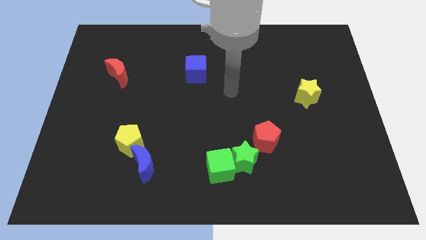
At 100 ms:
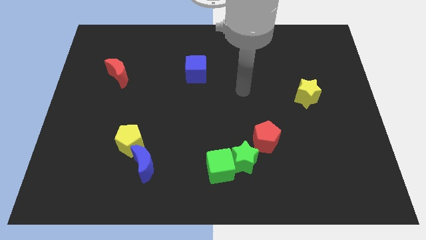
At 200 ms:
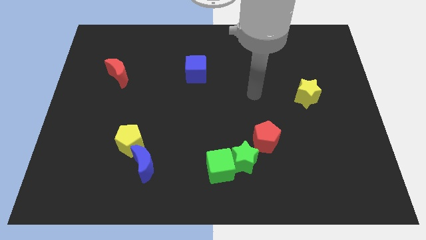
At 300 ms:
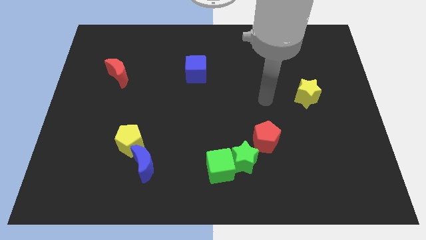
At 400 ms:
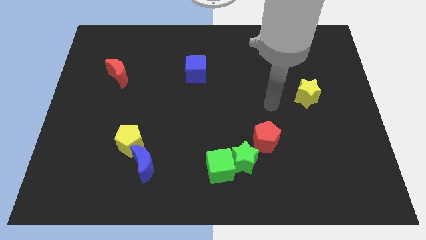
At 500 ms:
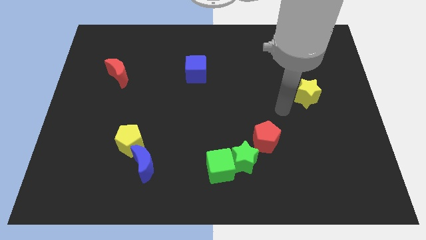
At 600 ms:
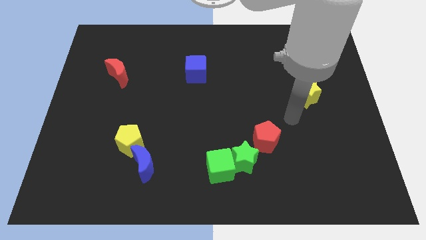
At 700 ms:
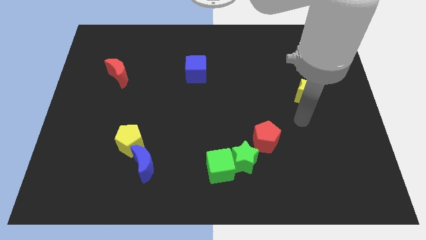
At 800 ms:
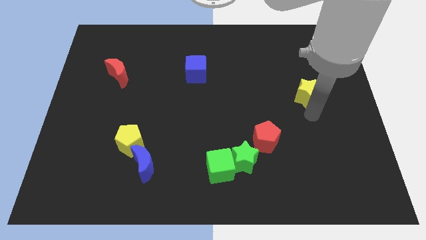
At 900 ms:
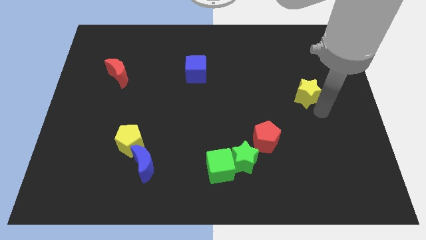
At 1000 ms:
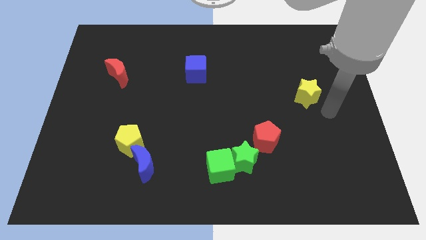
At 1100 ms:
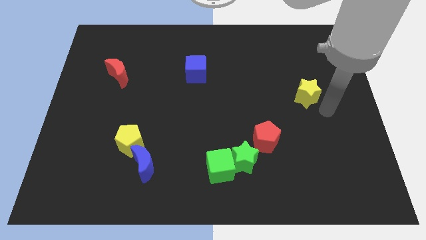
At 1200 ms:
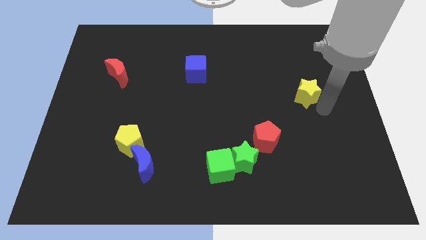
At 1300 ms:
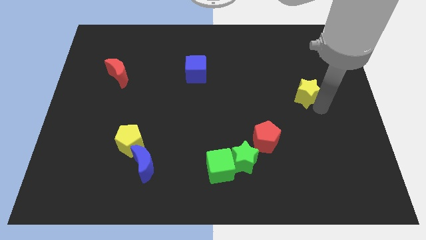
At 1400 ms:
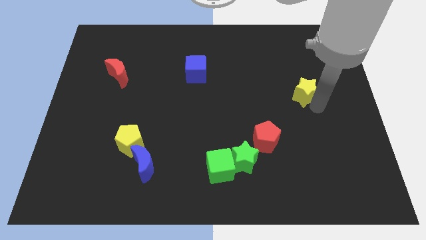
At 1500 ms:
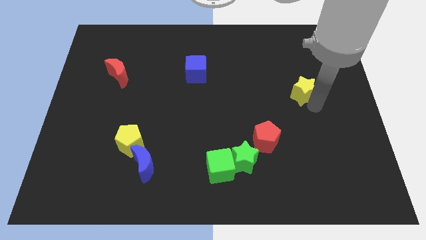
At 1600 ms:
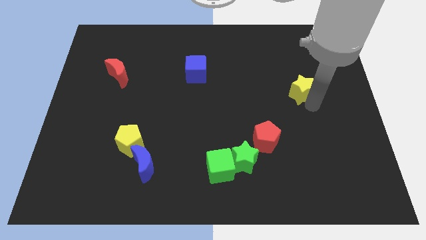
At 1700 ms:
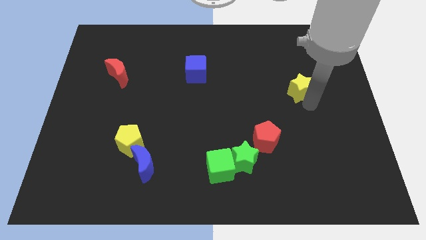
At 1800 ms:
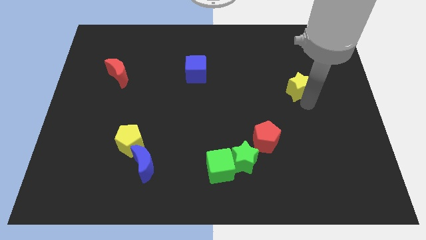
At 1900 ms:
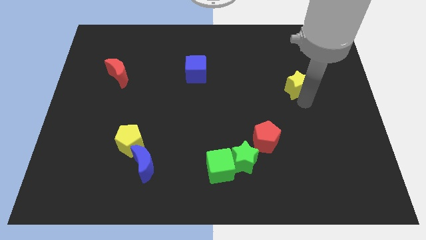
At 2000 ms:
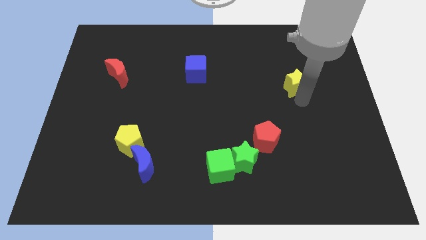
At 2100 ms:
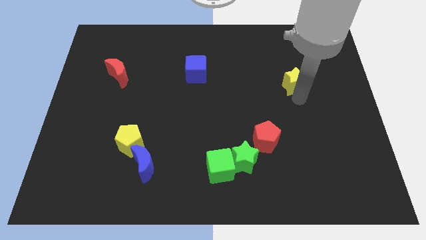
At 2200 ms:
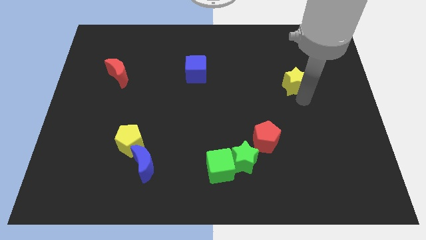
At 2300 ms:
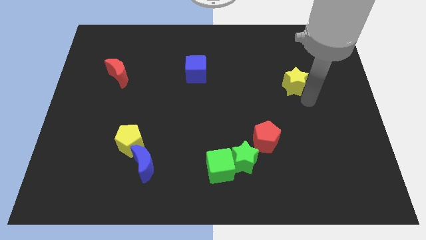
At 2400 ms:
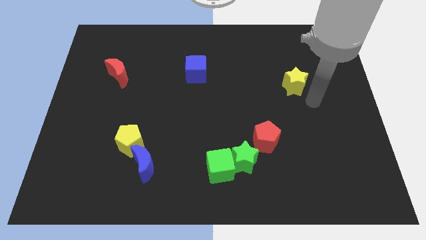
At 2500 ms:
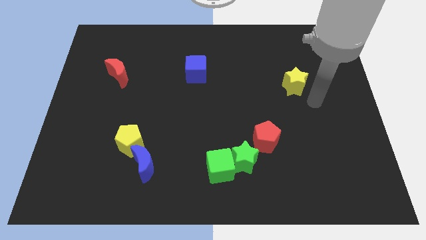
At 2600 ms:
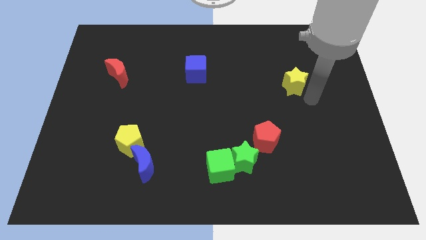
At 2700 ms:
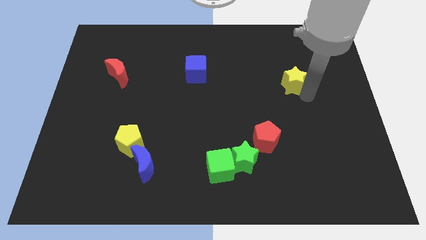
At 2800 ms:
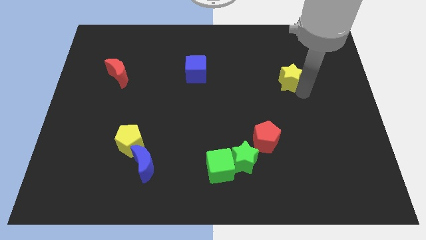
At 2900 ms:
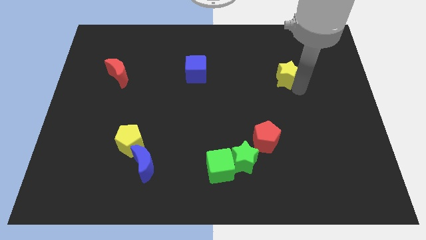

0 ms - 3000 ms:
slide the yellow star upwards and left a little bit

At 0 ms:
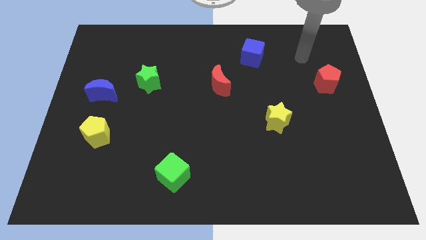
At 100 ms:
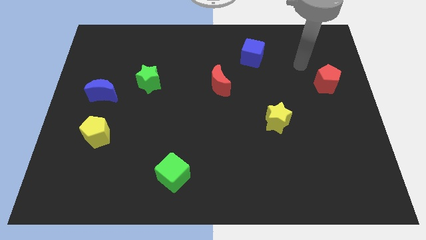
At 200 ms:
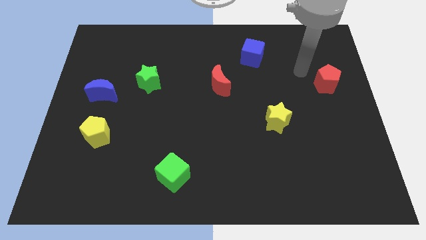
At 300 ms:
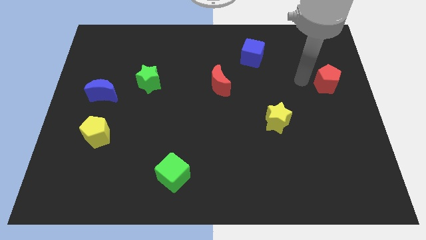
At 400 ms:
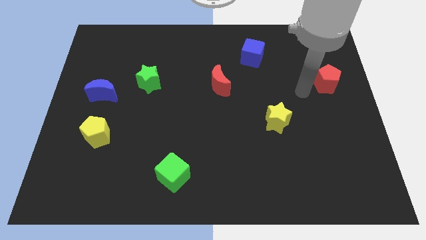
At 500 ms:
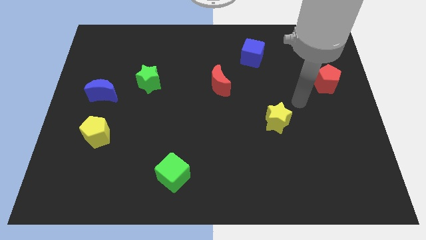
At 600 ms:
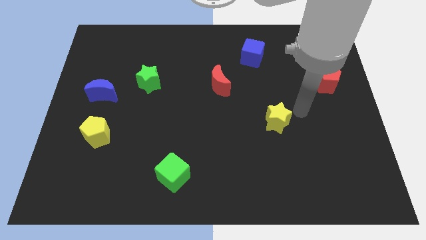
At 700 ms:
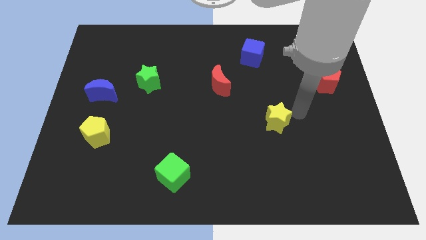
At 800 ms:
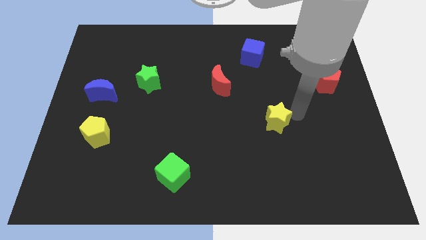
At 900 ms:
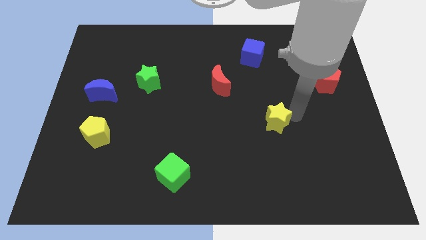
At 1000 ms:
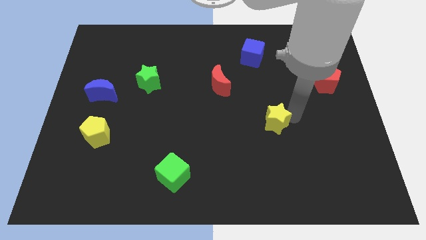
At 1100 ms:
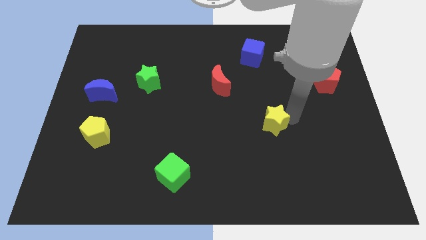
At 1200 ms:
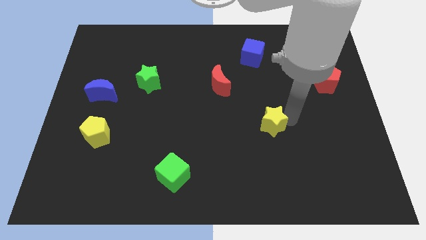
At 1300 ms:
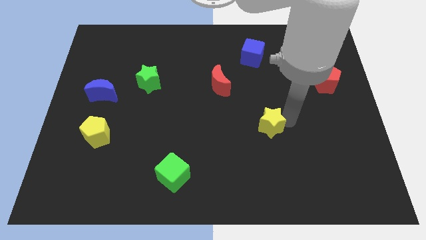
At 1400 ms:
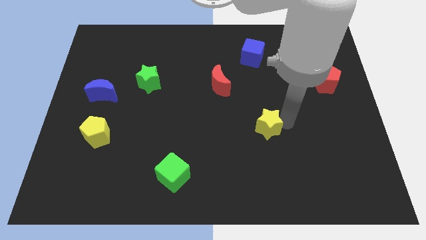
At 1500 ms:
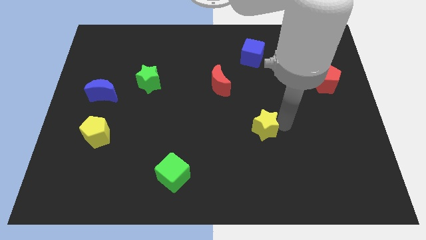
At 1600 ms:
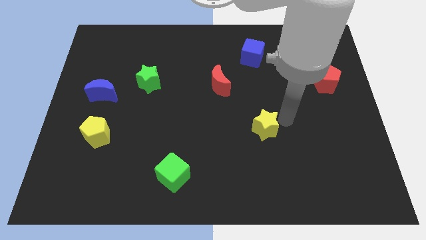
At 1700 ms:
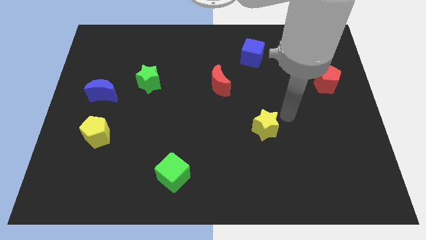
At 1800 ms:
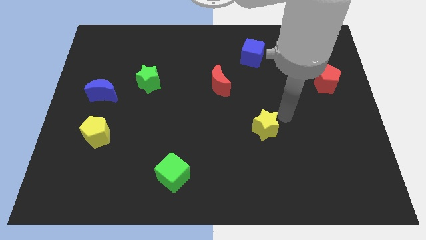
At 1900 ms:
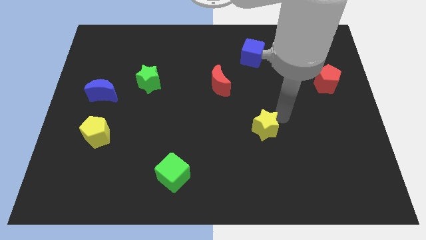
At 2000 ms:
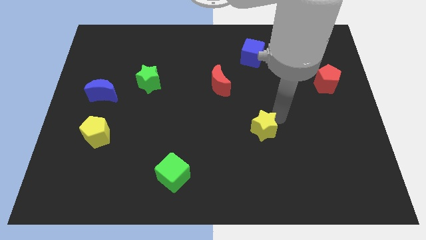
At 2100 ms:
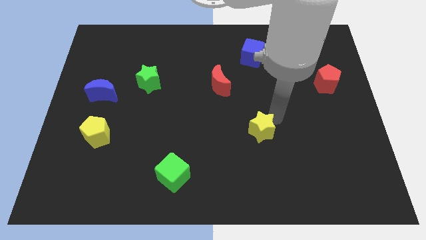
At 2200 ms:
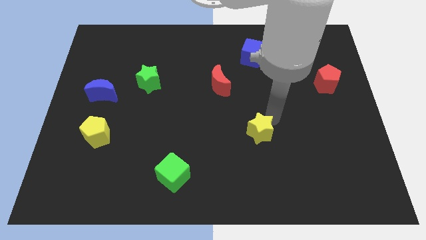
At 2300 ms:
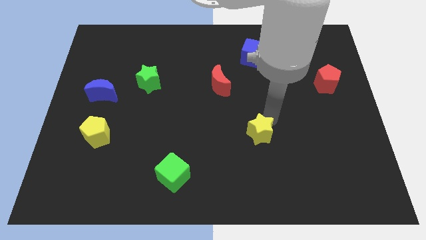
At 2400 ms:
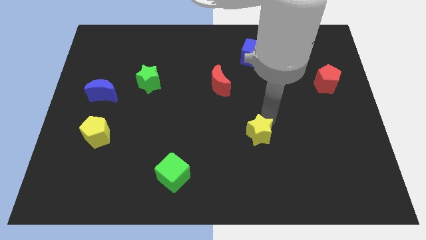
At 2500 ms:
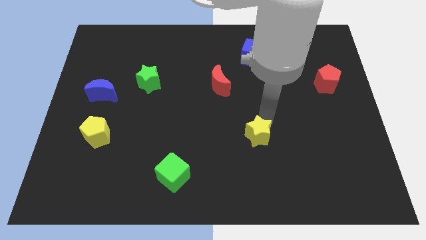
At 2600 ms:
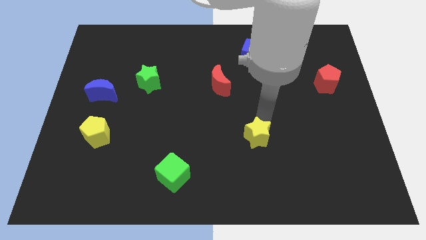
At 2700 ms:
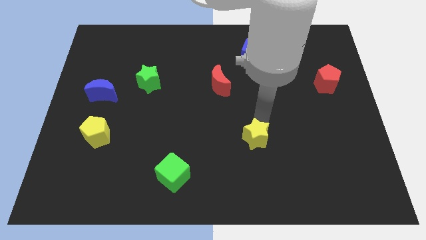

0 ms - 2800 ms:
move the yellow star a bit downwards and then left

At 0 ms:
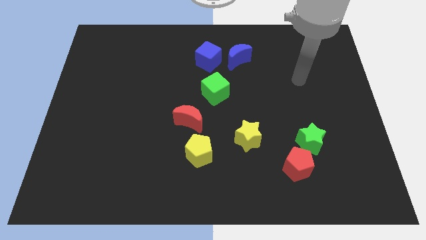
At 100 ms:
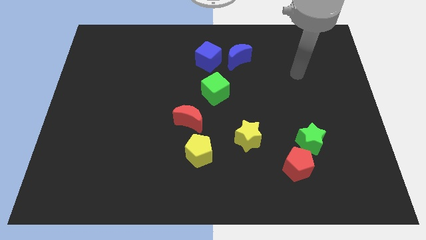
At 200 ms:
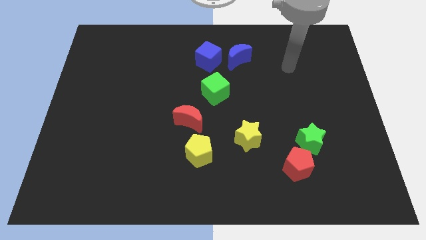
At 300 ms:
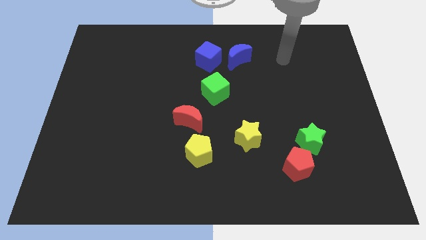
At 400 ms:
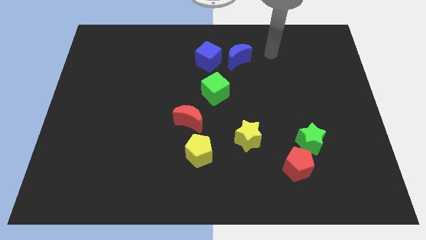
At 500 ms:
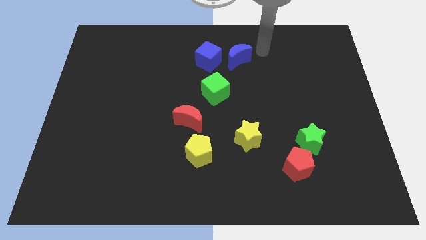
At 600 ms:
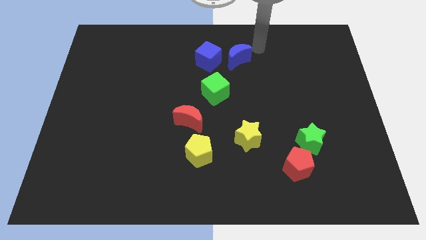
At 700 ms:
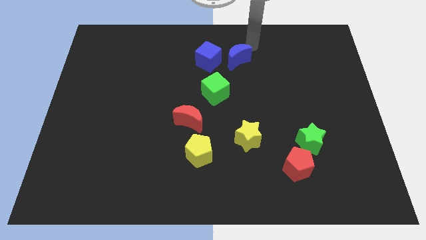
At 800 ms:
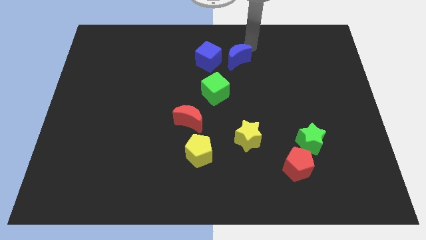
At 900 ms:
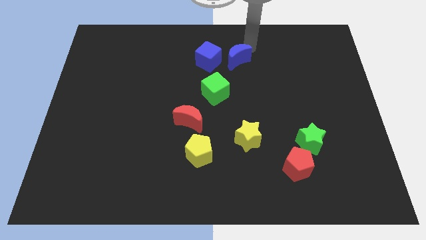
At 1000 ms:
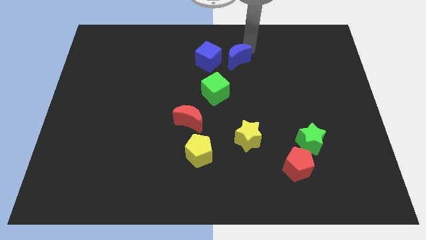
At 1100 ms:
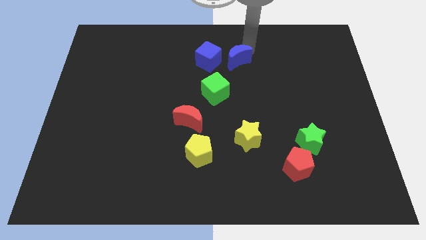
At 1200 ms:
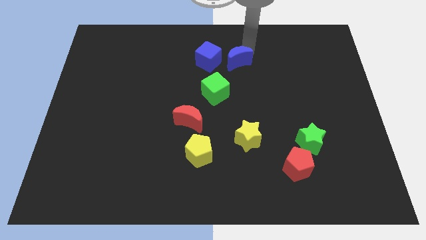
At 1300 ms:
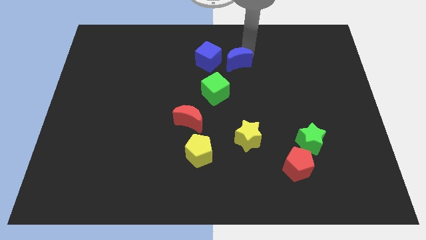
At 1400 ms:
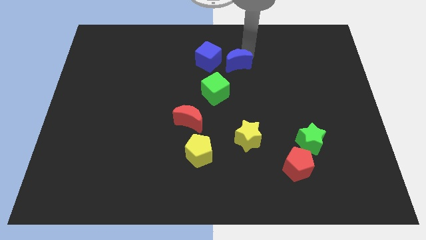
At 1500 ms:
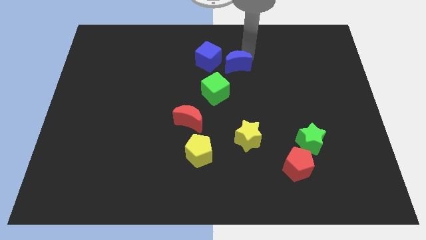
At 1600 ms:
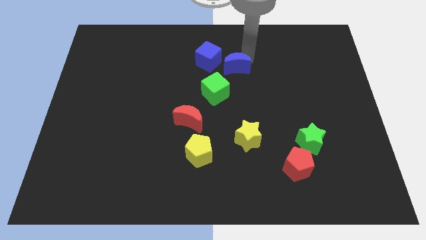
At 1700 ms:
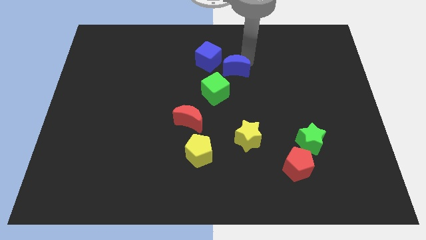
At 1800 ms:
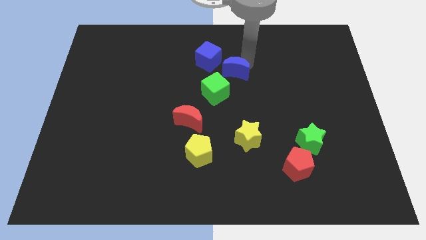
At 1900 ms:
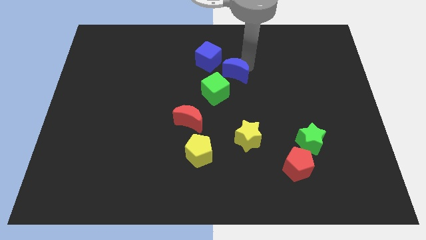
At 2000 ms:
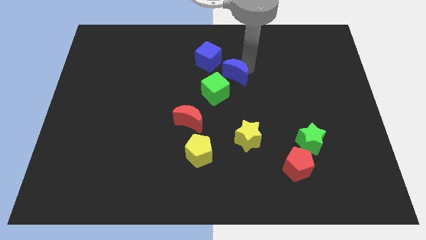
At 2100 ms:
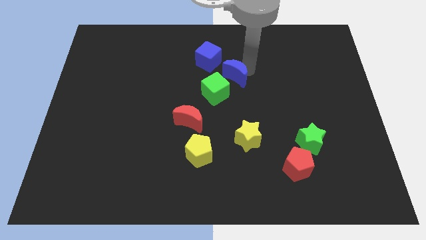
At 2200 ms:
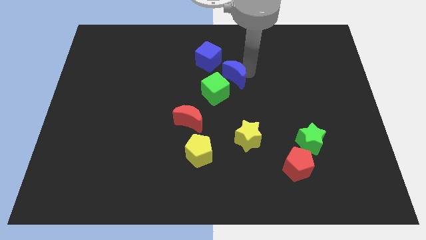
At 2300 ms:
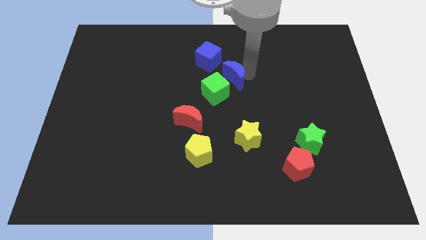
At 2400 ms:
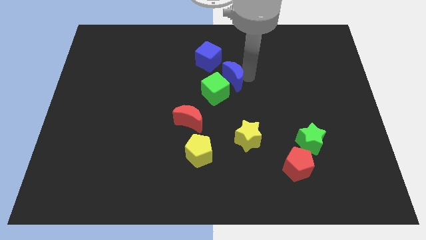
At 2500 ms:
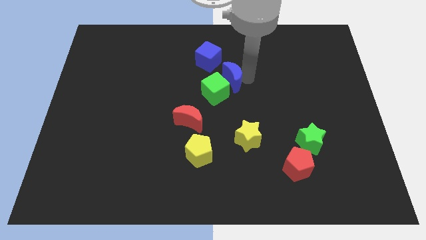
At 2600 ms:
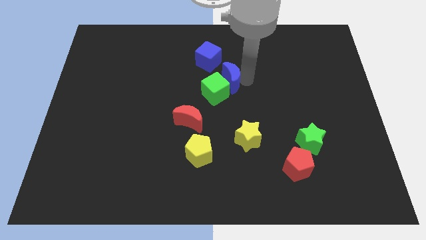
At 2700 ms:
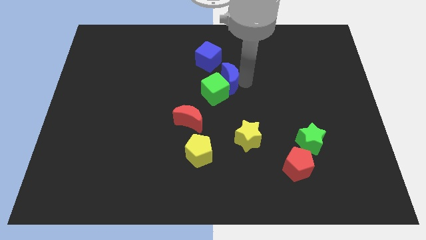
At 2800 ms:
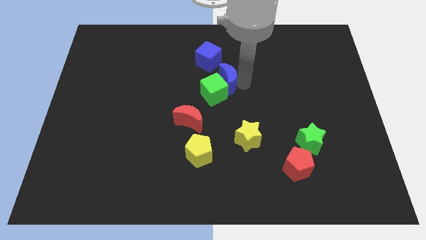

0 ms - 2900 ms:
push the blue moon a bit down and left
